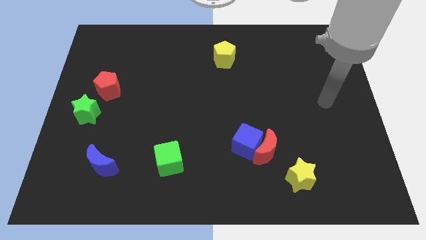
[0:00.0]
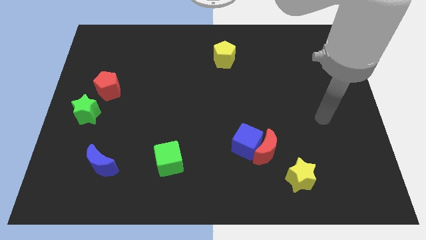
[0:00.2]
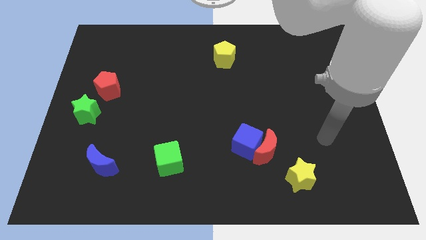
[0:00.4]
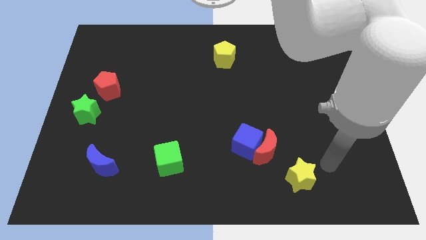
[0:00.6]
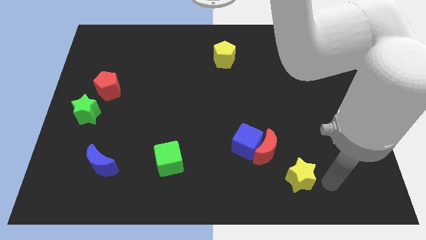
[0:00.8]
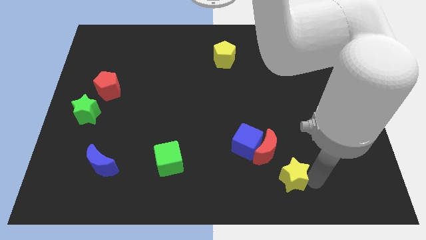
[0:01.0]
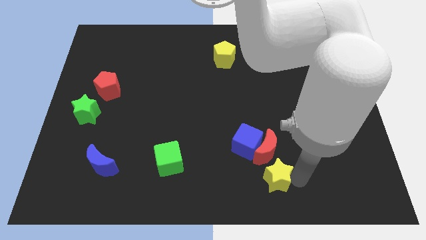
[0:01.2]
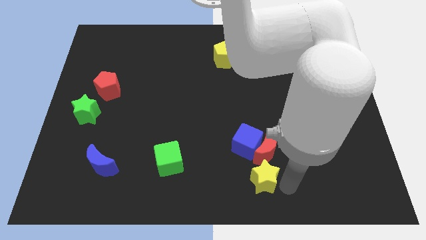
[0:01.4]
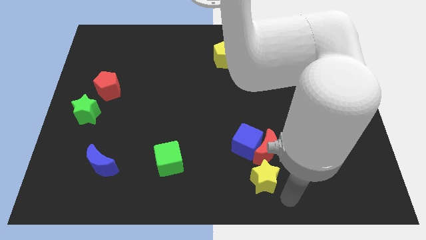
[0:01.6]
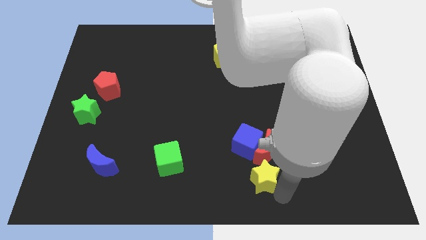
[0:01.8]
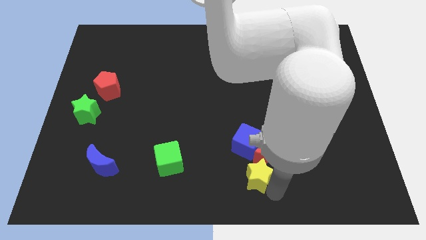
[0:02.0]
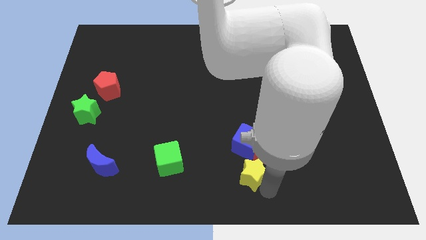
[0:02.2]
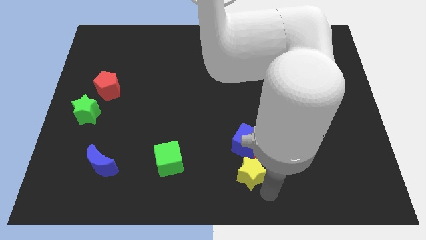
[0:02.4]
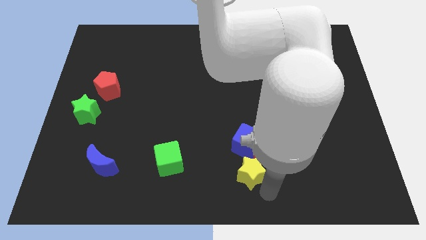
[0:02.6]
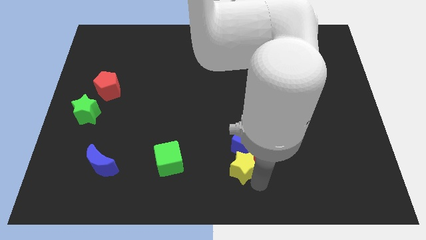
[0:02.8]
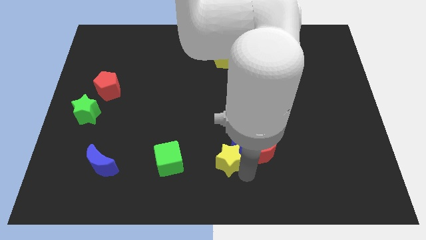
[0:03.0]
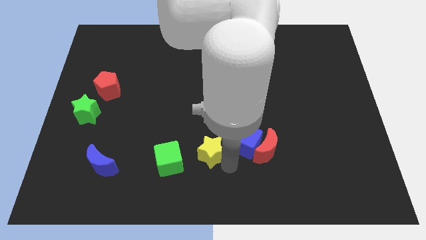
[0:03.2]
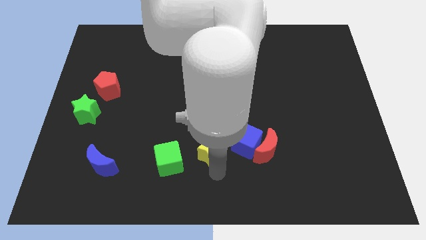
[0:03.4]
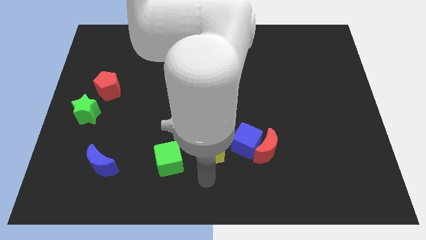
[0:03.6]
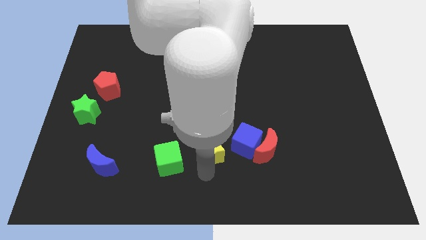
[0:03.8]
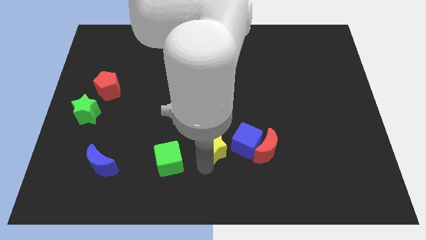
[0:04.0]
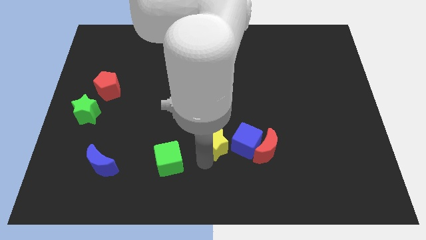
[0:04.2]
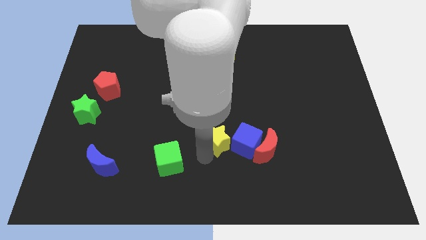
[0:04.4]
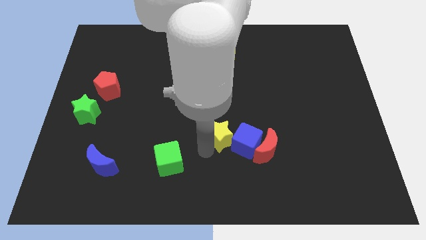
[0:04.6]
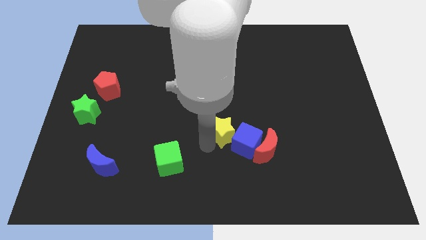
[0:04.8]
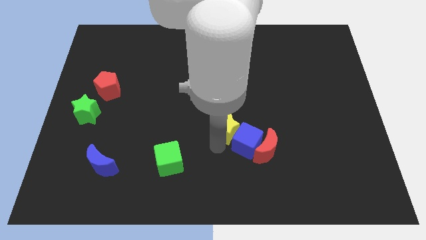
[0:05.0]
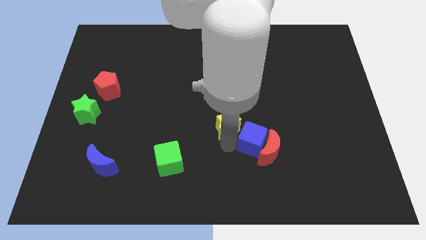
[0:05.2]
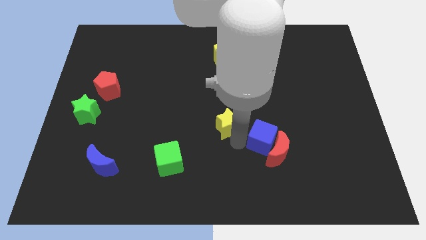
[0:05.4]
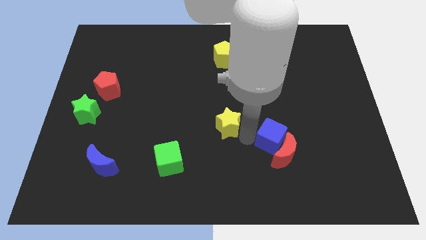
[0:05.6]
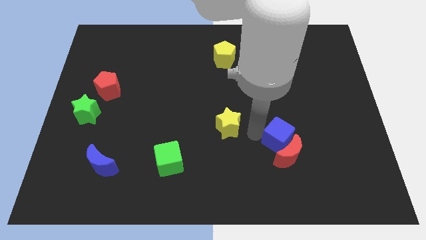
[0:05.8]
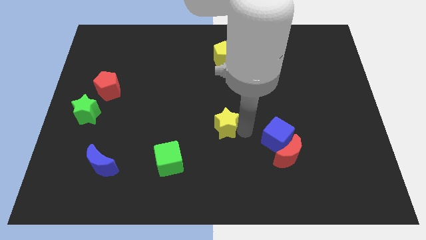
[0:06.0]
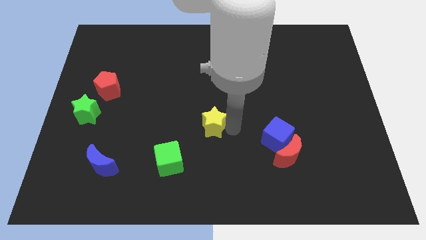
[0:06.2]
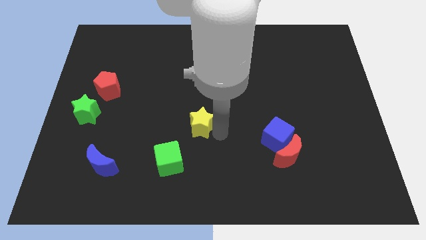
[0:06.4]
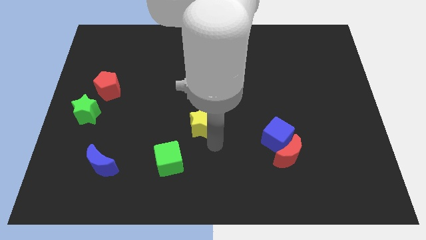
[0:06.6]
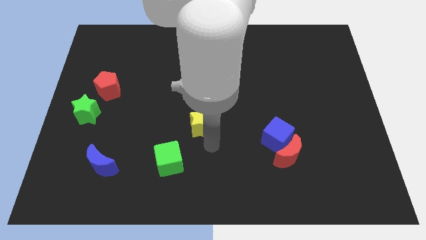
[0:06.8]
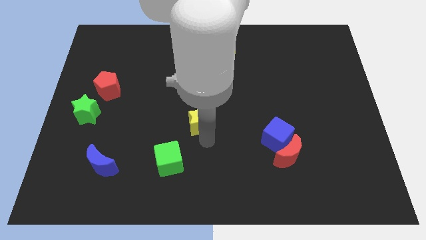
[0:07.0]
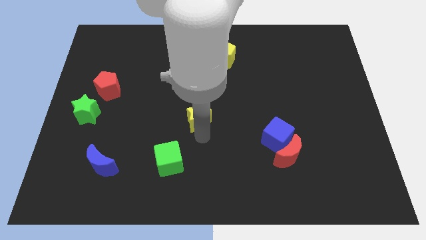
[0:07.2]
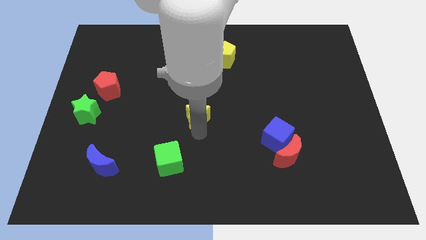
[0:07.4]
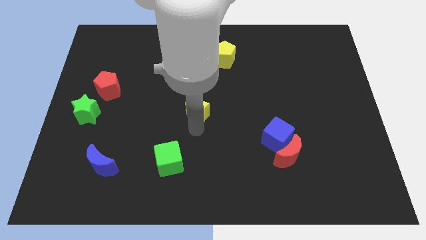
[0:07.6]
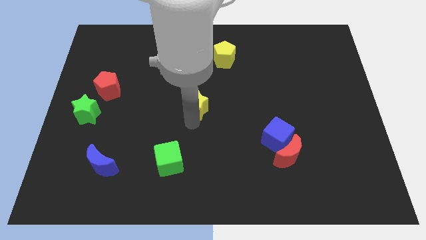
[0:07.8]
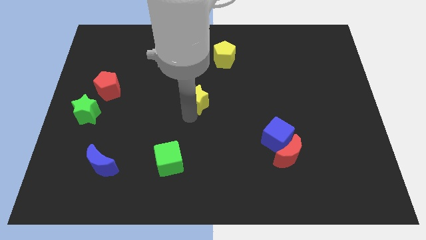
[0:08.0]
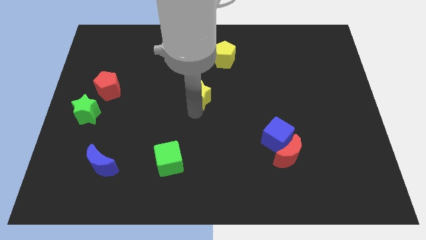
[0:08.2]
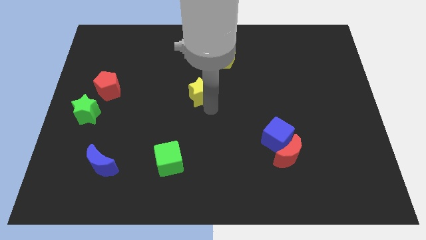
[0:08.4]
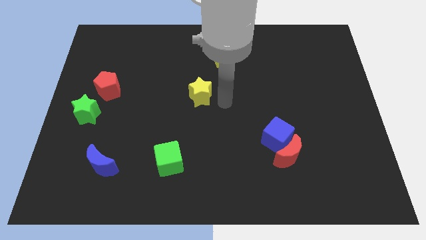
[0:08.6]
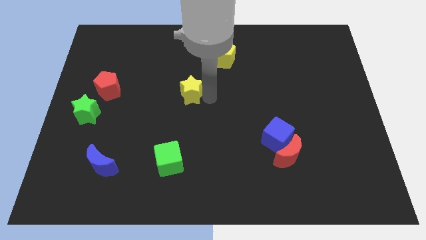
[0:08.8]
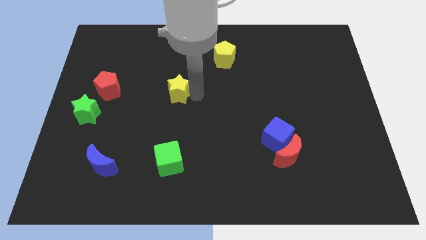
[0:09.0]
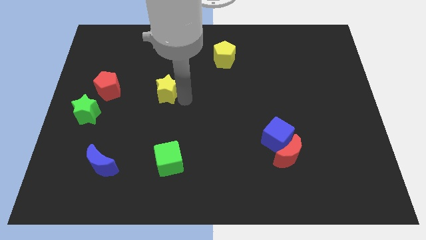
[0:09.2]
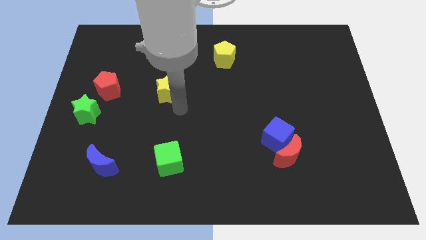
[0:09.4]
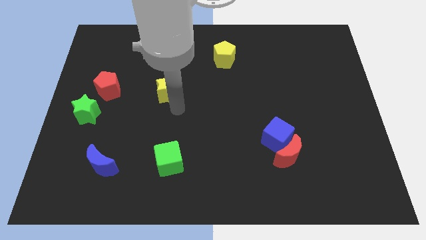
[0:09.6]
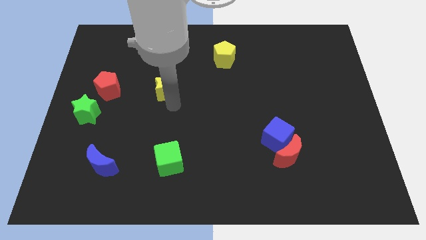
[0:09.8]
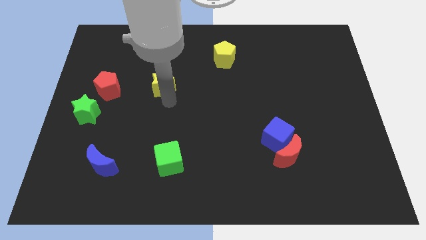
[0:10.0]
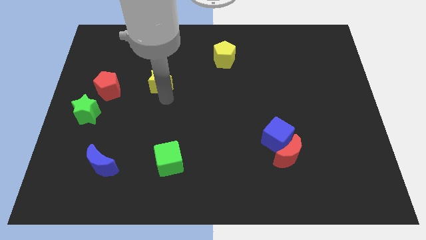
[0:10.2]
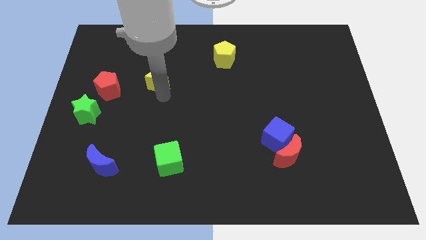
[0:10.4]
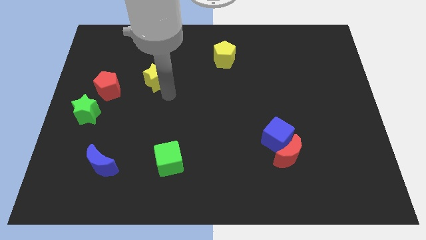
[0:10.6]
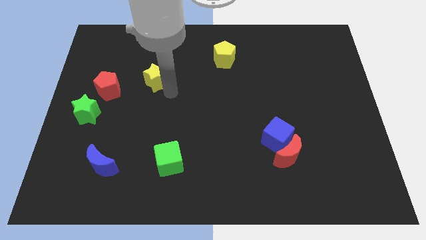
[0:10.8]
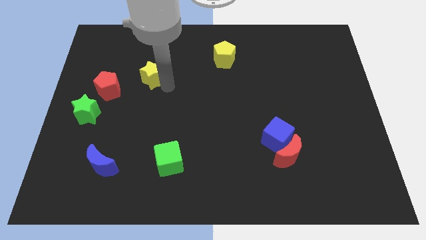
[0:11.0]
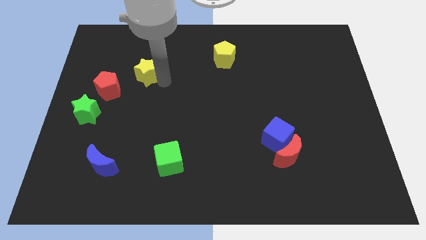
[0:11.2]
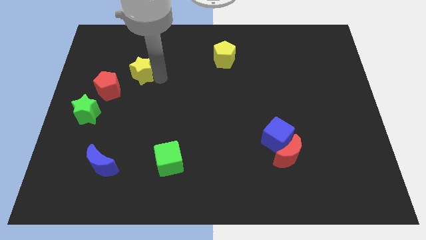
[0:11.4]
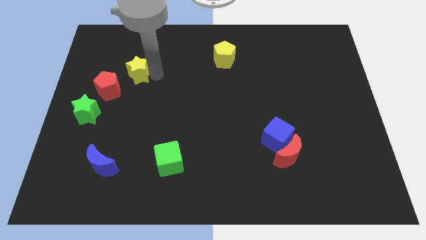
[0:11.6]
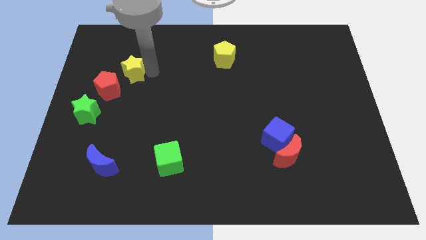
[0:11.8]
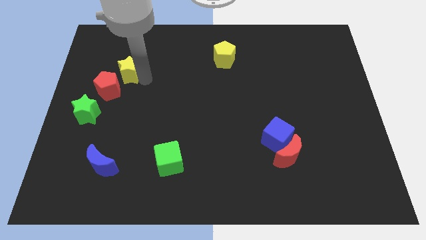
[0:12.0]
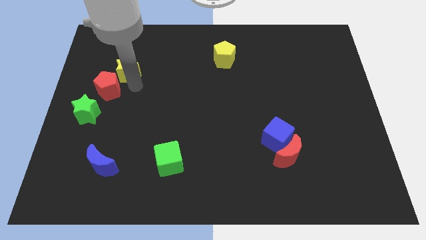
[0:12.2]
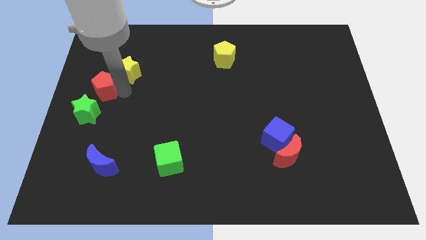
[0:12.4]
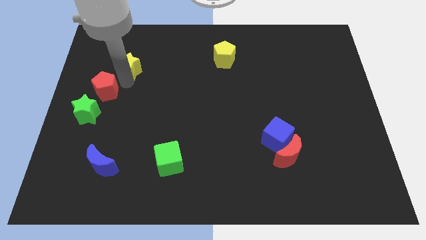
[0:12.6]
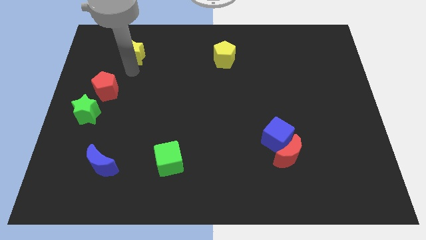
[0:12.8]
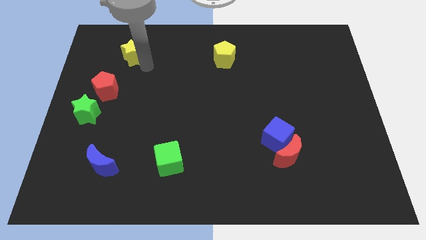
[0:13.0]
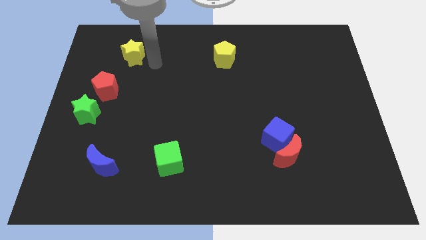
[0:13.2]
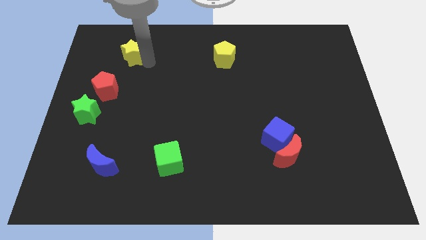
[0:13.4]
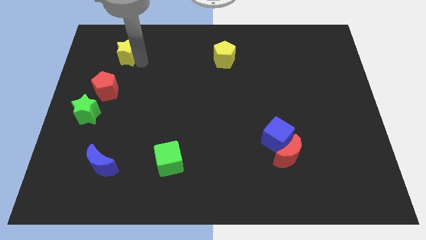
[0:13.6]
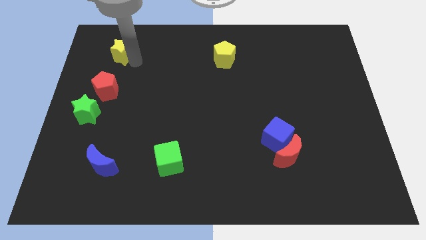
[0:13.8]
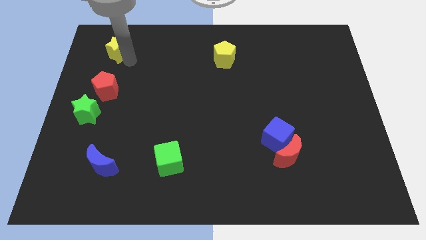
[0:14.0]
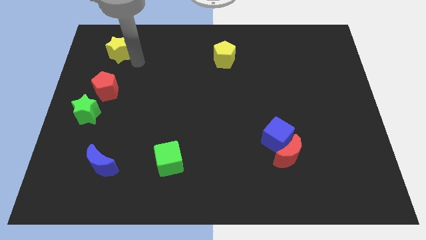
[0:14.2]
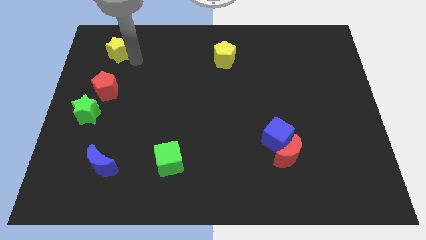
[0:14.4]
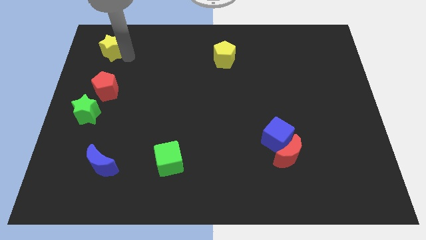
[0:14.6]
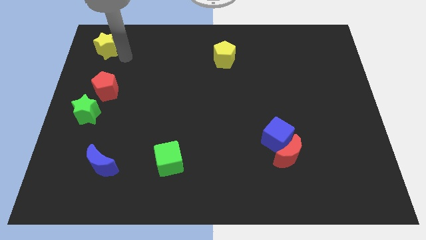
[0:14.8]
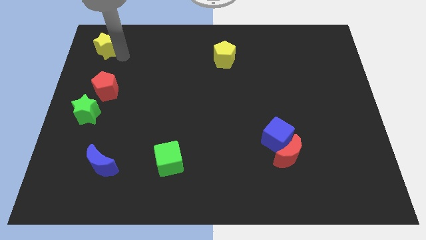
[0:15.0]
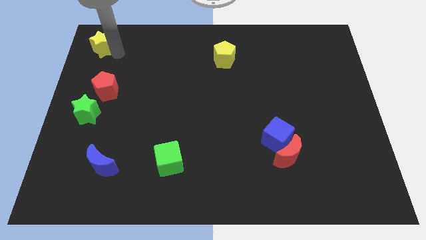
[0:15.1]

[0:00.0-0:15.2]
push the yellow star to the top left corner
